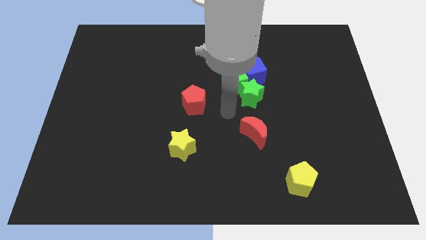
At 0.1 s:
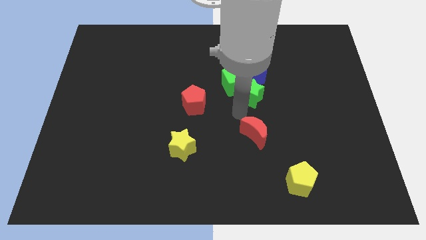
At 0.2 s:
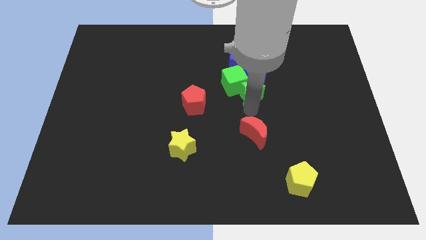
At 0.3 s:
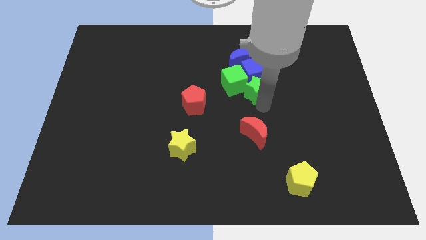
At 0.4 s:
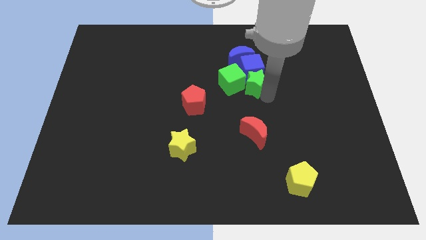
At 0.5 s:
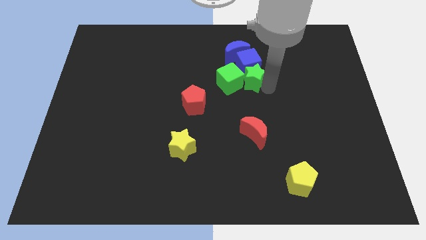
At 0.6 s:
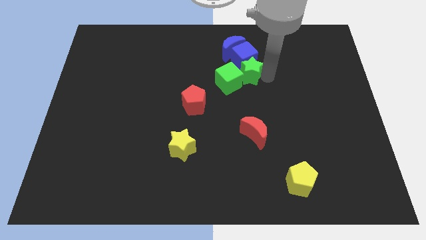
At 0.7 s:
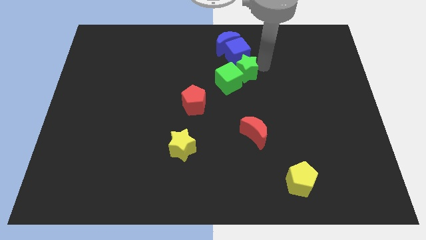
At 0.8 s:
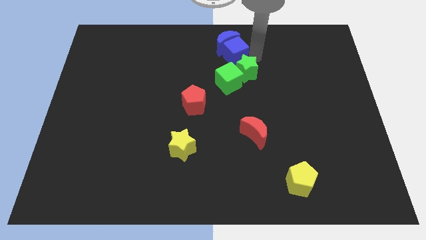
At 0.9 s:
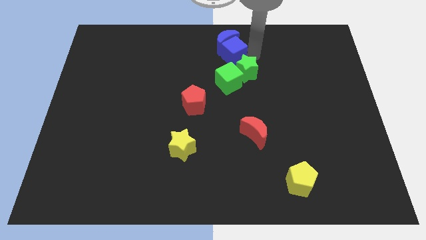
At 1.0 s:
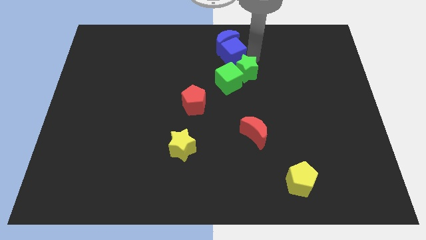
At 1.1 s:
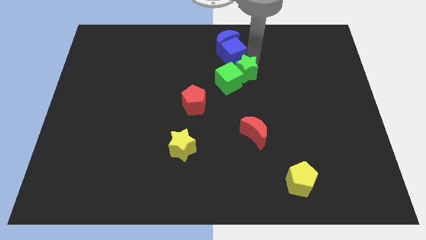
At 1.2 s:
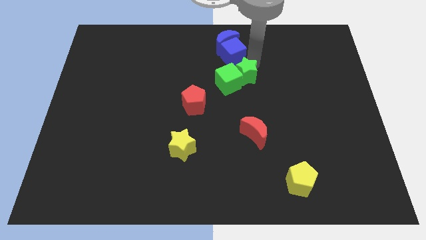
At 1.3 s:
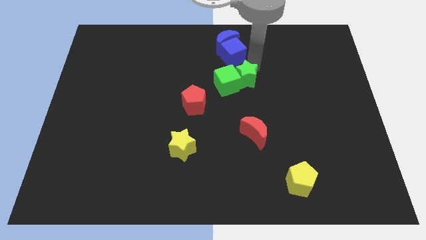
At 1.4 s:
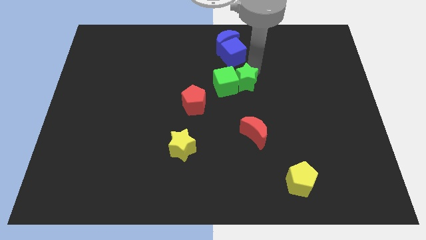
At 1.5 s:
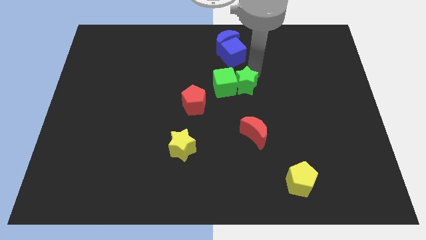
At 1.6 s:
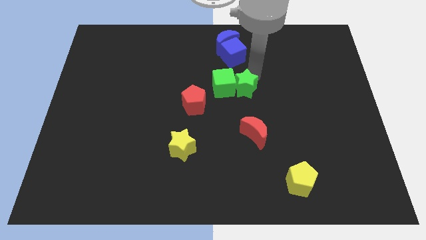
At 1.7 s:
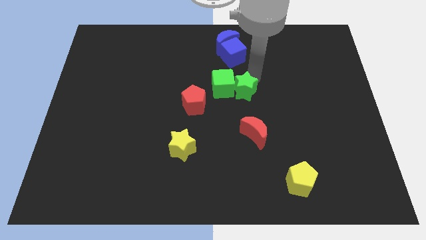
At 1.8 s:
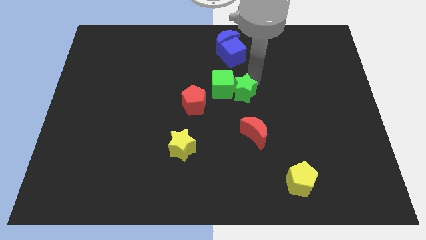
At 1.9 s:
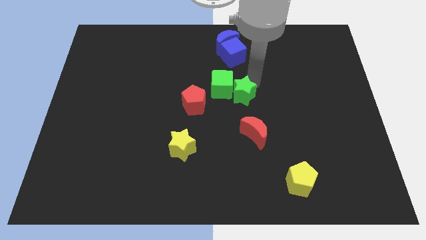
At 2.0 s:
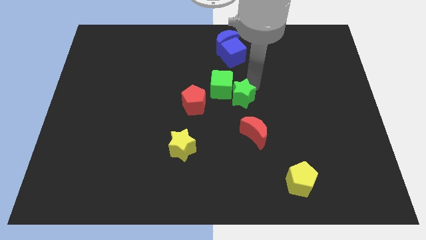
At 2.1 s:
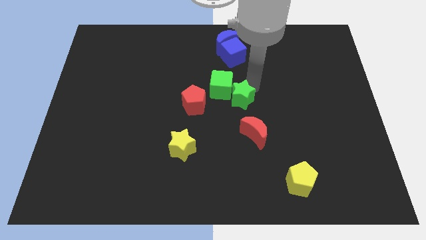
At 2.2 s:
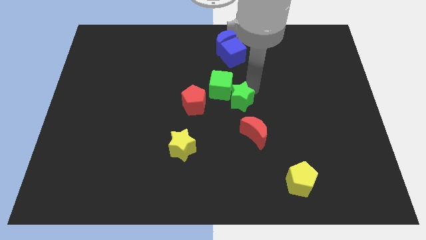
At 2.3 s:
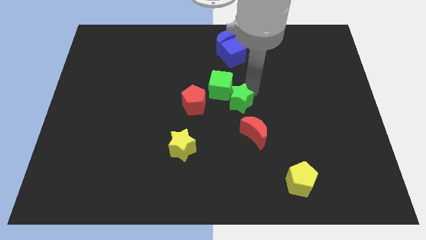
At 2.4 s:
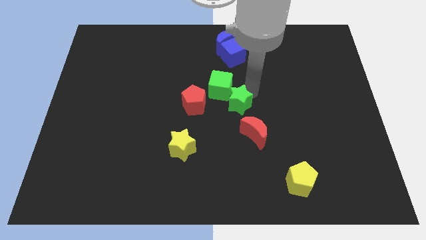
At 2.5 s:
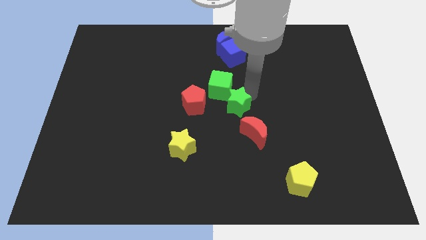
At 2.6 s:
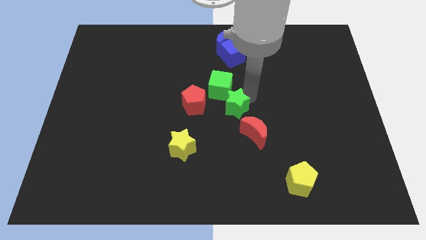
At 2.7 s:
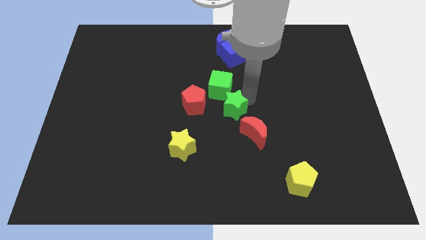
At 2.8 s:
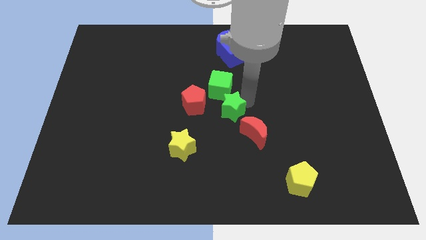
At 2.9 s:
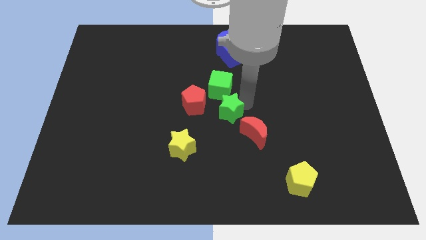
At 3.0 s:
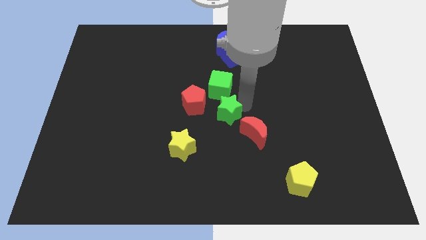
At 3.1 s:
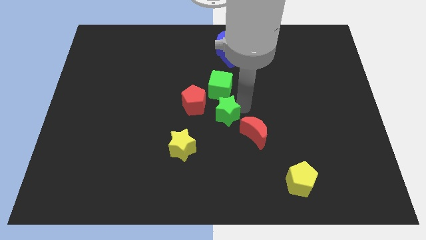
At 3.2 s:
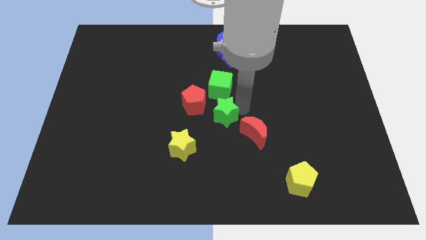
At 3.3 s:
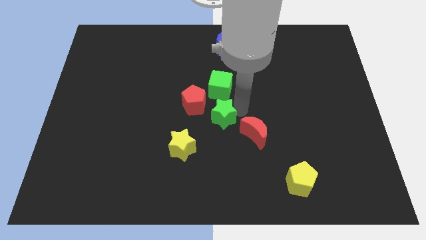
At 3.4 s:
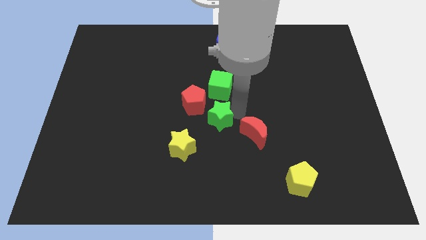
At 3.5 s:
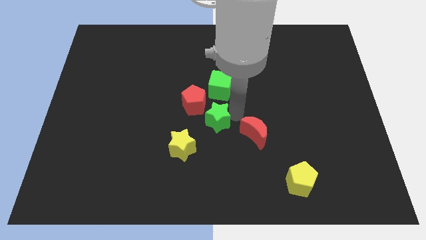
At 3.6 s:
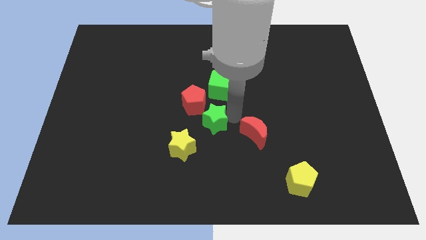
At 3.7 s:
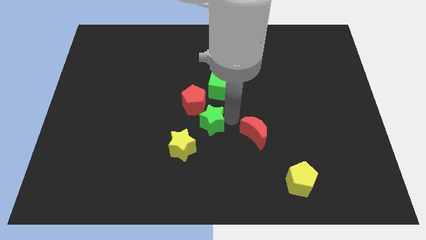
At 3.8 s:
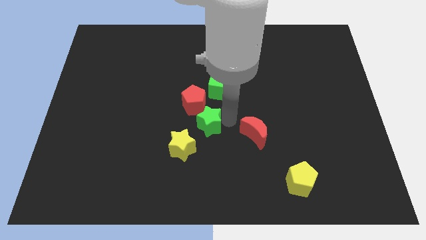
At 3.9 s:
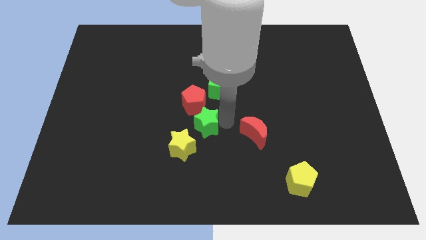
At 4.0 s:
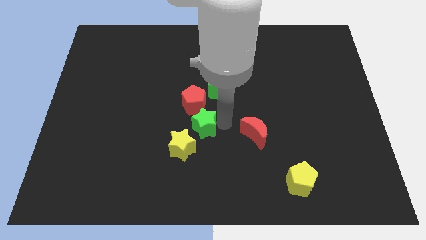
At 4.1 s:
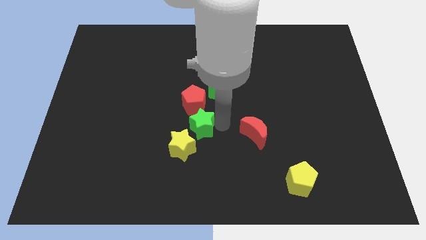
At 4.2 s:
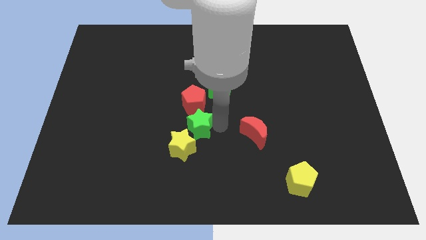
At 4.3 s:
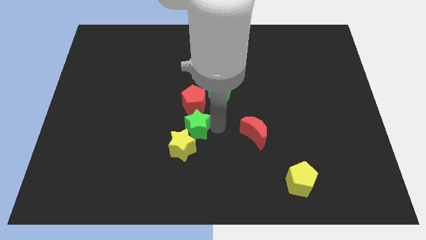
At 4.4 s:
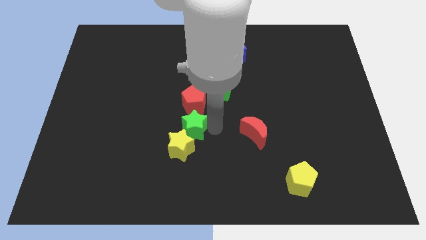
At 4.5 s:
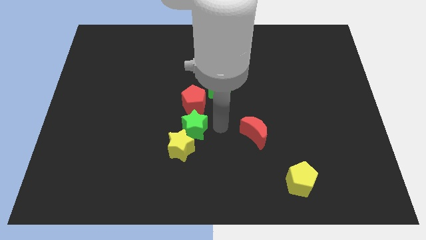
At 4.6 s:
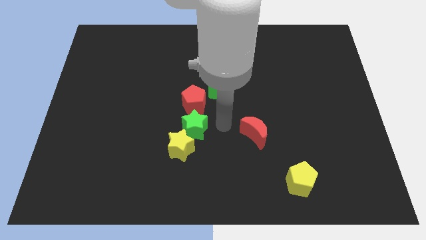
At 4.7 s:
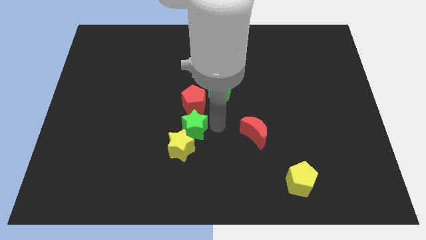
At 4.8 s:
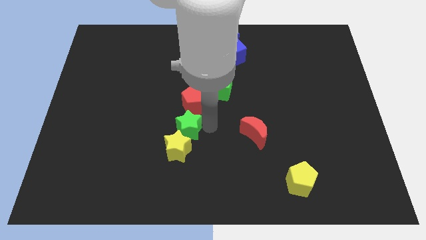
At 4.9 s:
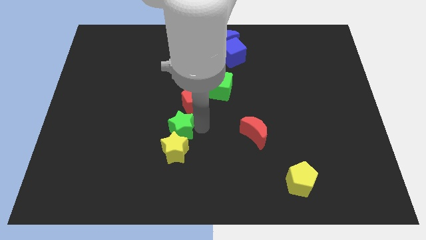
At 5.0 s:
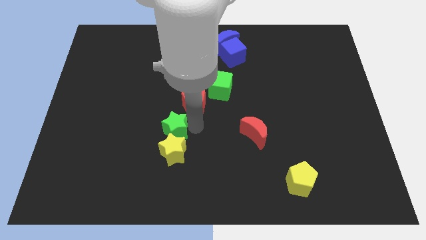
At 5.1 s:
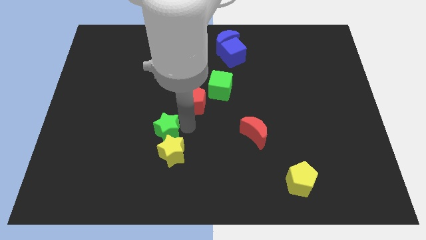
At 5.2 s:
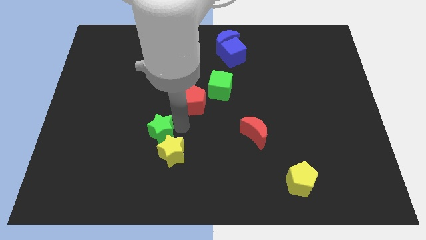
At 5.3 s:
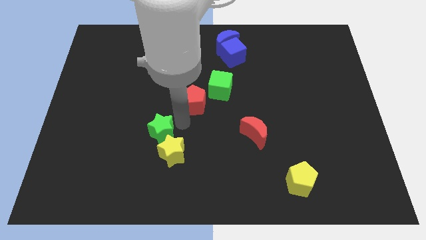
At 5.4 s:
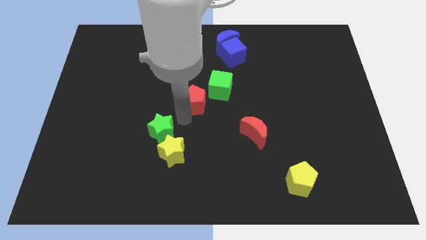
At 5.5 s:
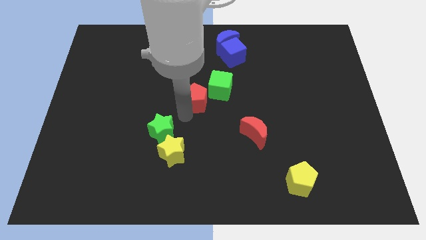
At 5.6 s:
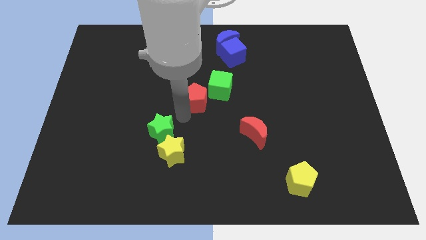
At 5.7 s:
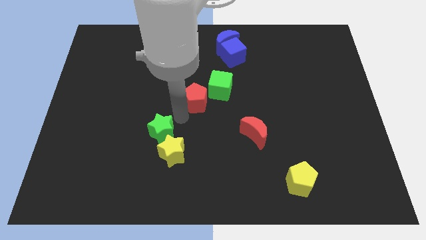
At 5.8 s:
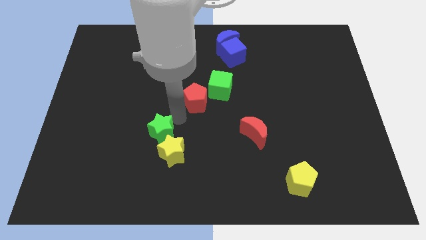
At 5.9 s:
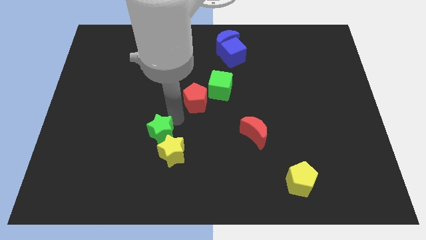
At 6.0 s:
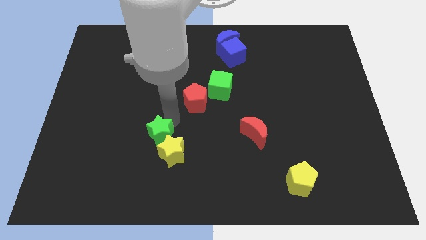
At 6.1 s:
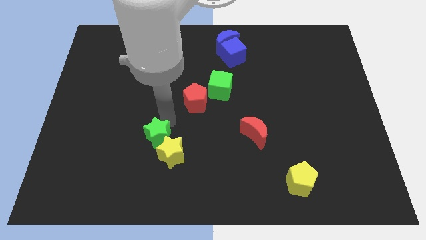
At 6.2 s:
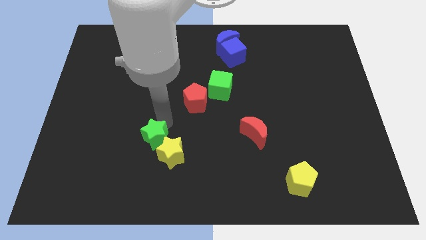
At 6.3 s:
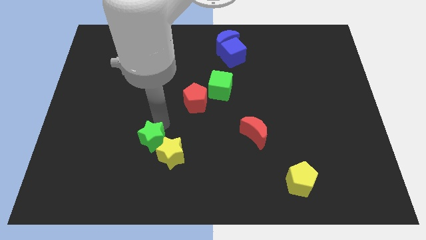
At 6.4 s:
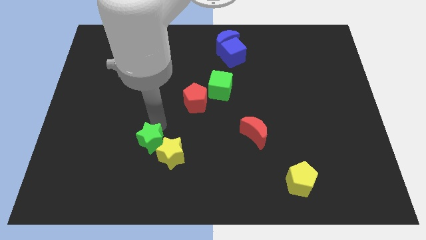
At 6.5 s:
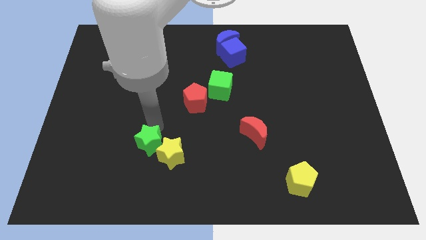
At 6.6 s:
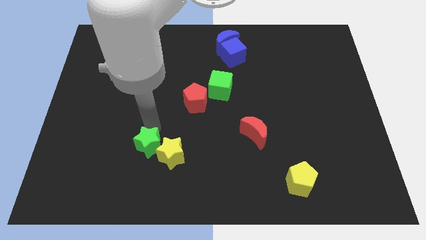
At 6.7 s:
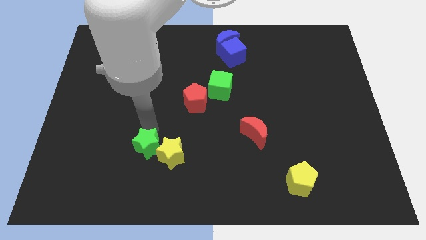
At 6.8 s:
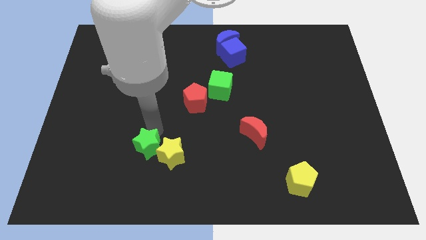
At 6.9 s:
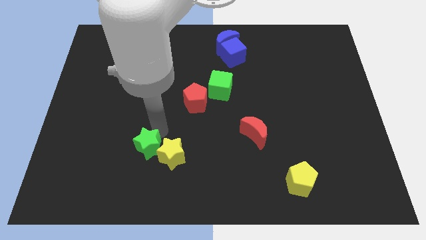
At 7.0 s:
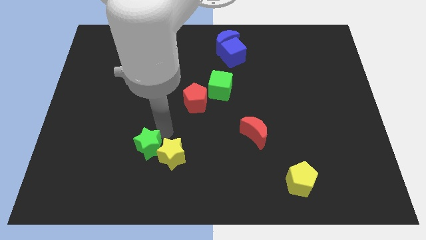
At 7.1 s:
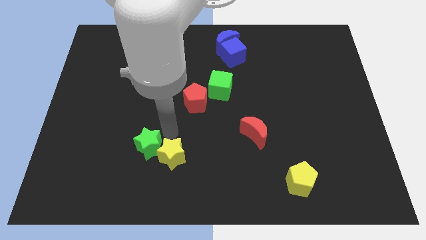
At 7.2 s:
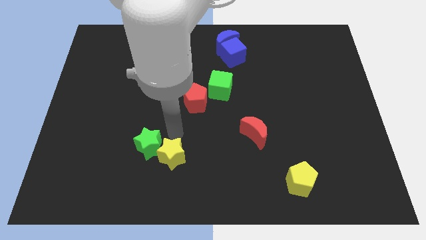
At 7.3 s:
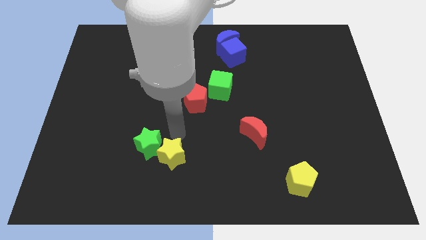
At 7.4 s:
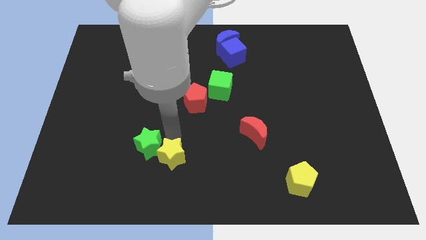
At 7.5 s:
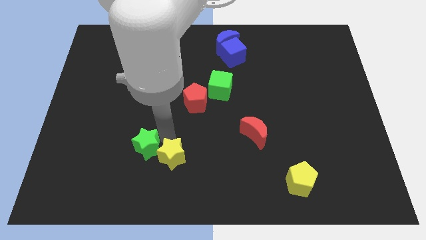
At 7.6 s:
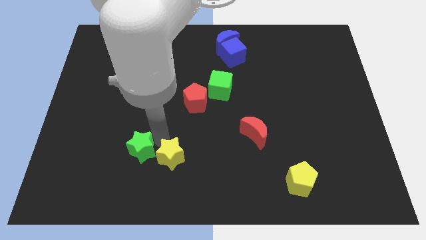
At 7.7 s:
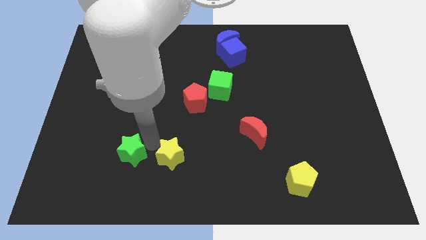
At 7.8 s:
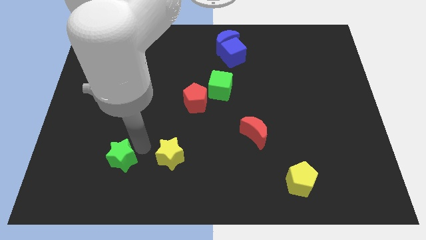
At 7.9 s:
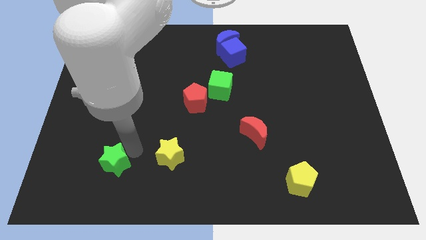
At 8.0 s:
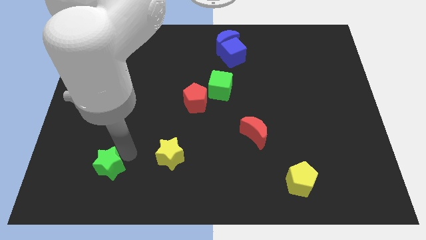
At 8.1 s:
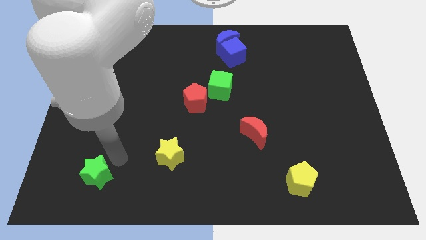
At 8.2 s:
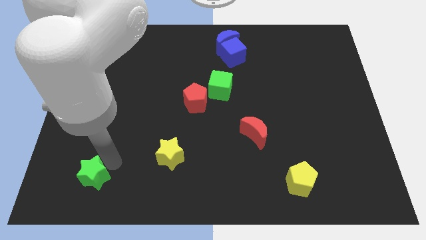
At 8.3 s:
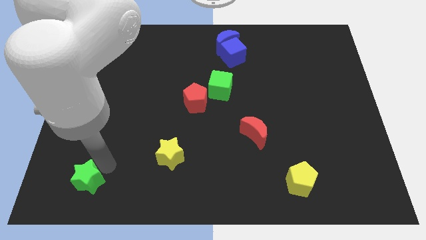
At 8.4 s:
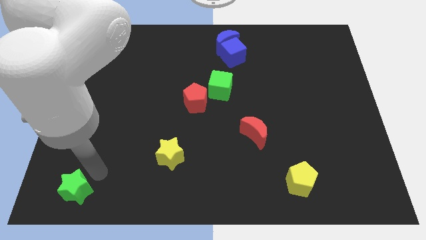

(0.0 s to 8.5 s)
put the green star to the bottom left
